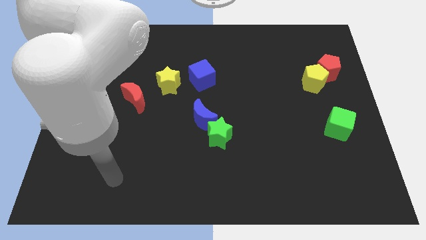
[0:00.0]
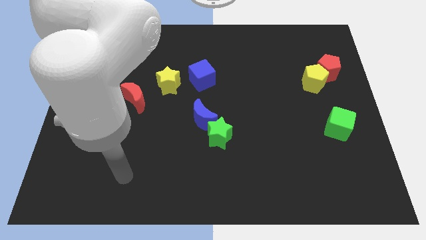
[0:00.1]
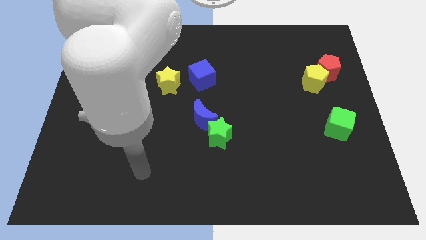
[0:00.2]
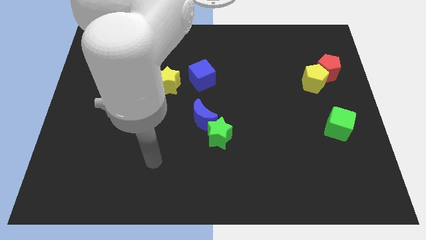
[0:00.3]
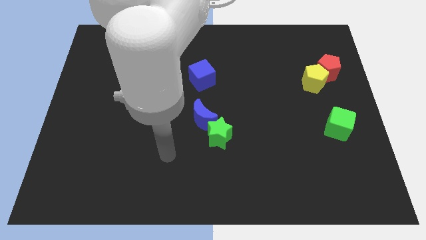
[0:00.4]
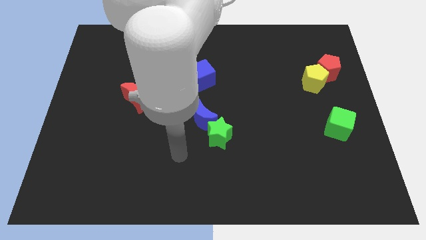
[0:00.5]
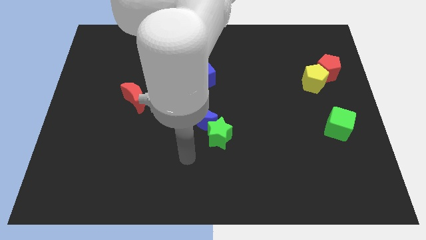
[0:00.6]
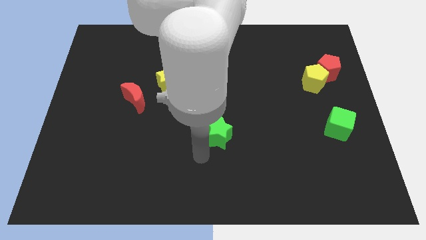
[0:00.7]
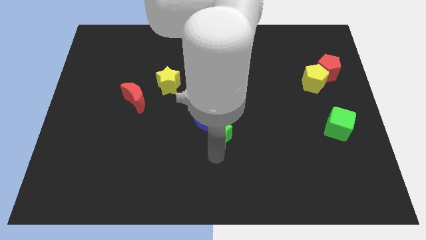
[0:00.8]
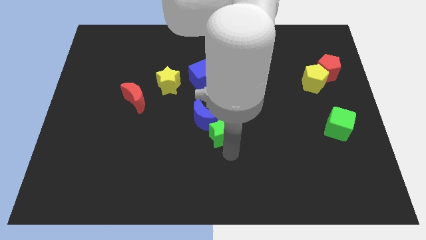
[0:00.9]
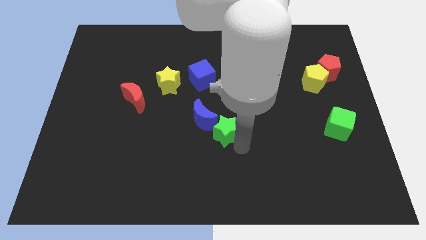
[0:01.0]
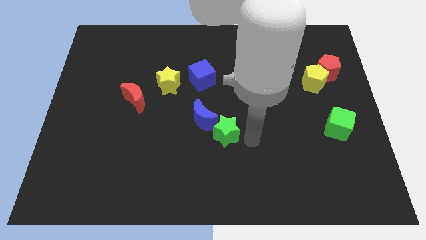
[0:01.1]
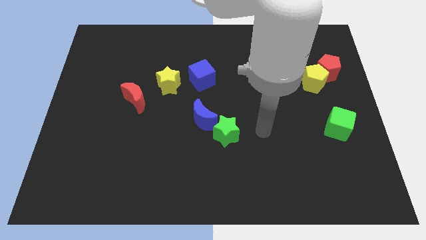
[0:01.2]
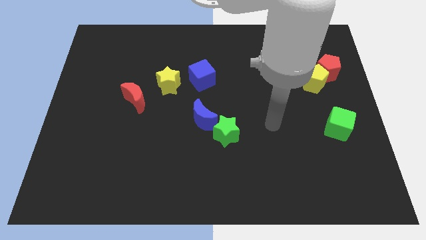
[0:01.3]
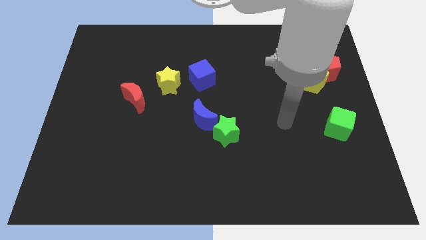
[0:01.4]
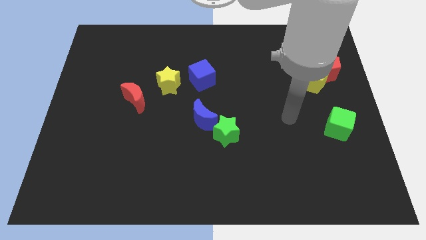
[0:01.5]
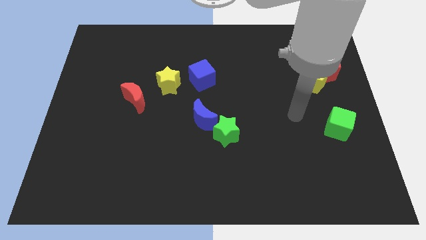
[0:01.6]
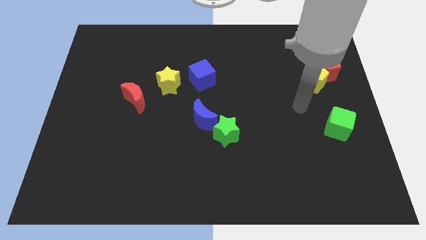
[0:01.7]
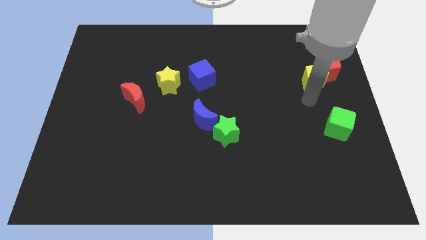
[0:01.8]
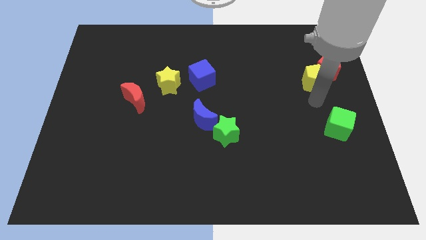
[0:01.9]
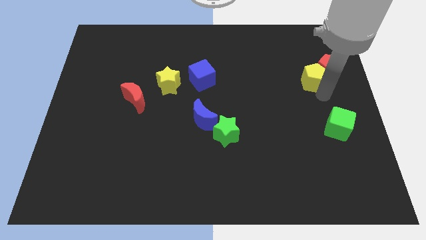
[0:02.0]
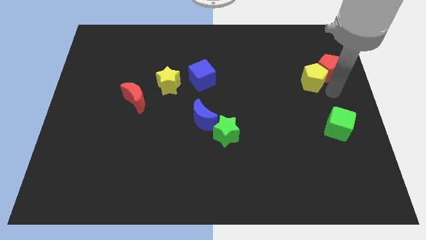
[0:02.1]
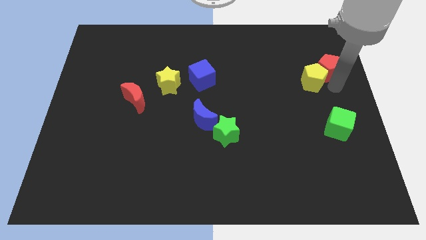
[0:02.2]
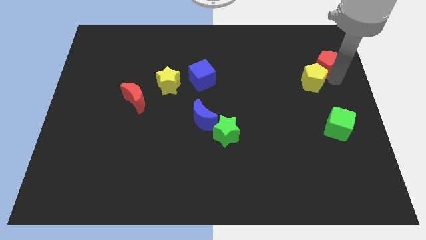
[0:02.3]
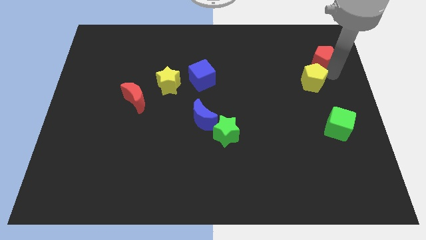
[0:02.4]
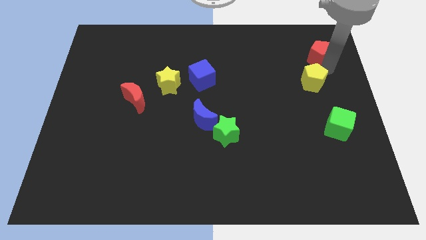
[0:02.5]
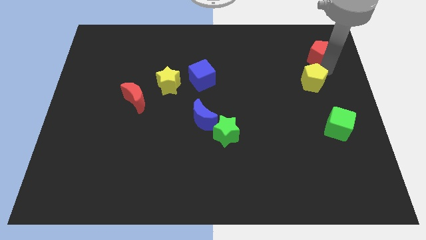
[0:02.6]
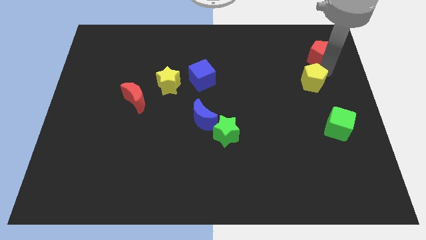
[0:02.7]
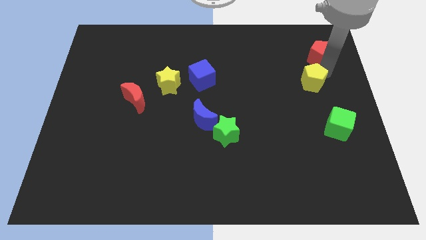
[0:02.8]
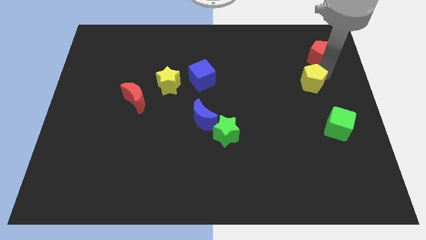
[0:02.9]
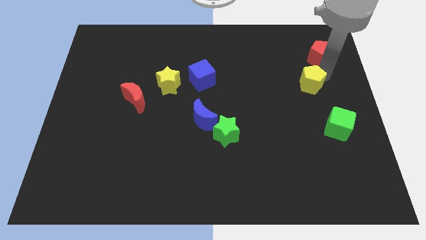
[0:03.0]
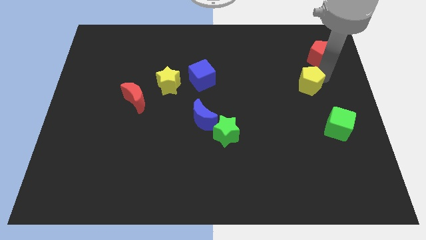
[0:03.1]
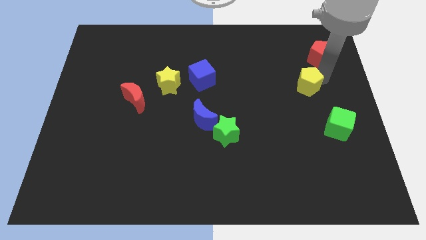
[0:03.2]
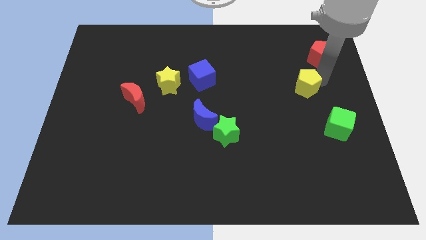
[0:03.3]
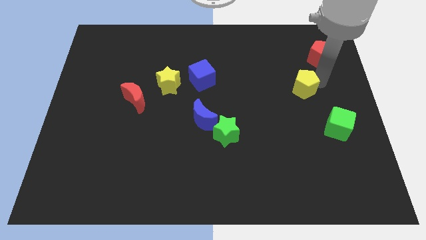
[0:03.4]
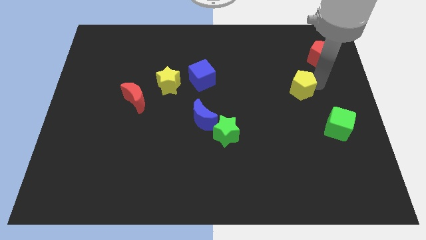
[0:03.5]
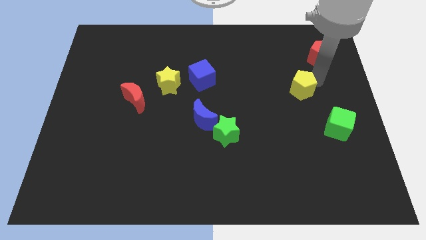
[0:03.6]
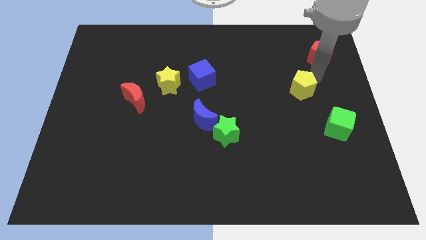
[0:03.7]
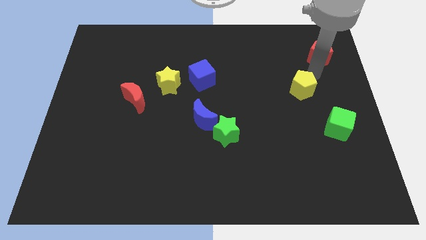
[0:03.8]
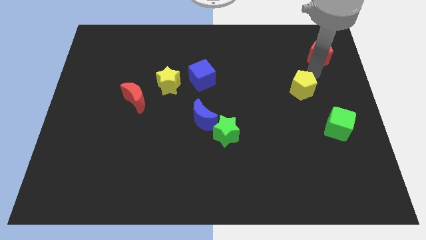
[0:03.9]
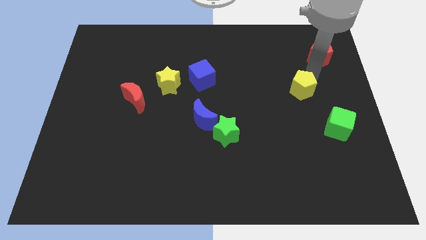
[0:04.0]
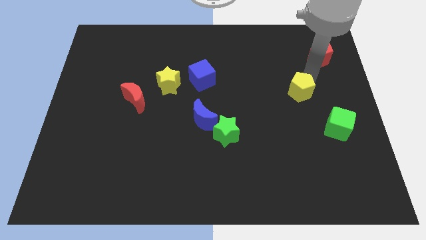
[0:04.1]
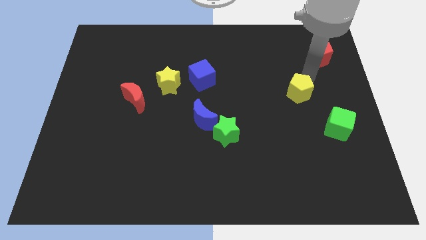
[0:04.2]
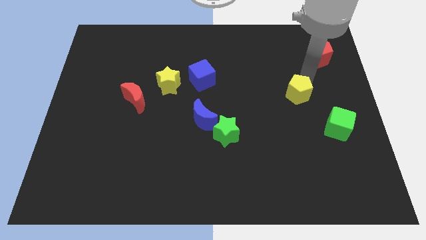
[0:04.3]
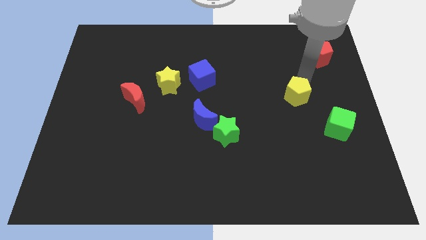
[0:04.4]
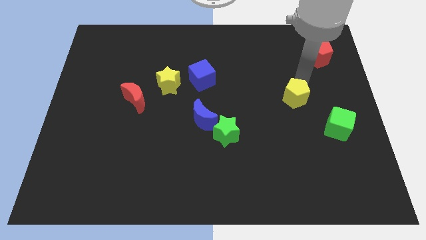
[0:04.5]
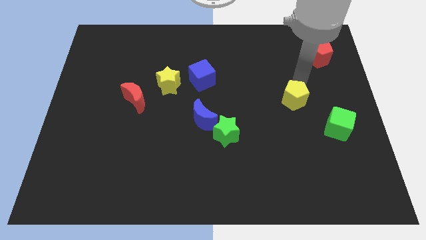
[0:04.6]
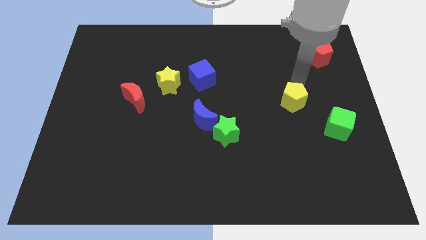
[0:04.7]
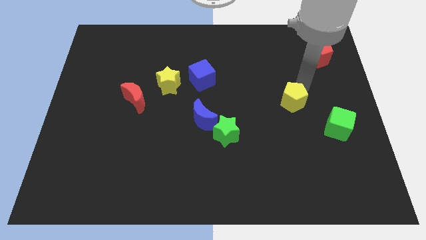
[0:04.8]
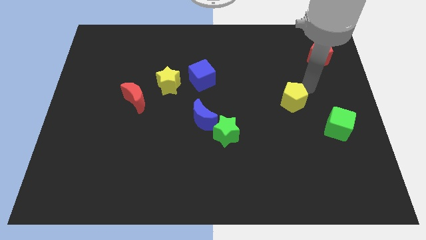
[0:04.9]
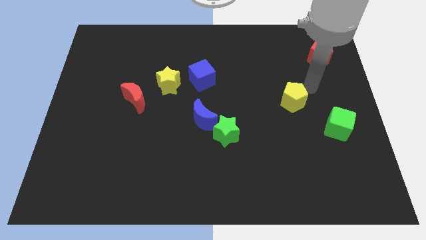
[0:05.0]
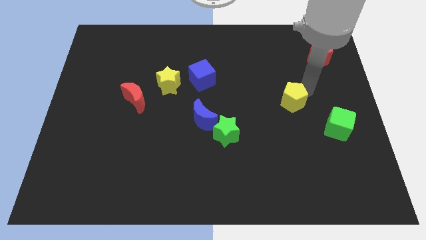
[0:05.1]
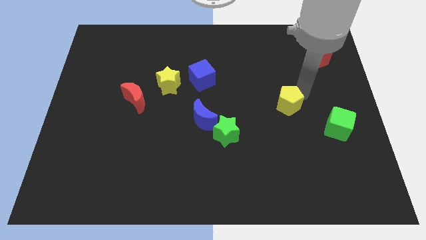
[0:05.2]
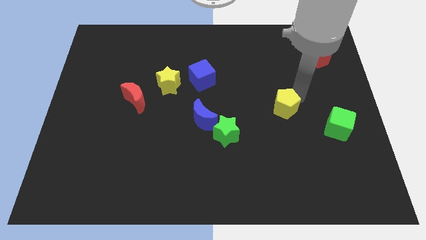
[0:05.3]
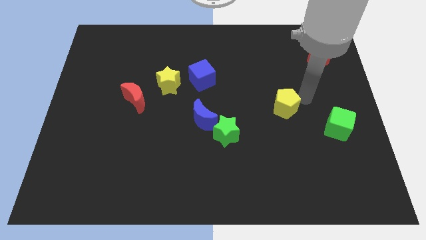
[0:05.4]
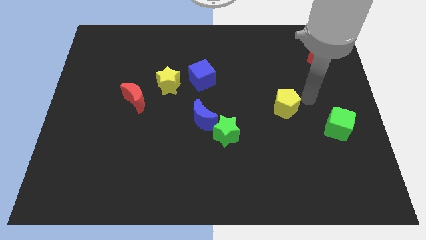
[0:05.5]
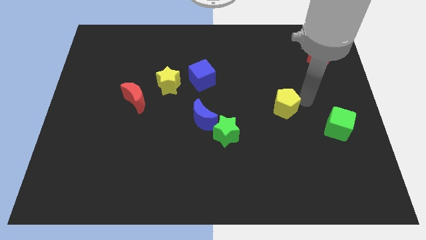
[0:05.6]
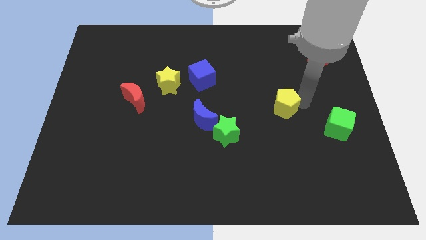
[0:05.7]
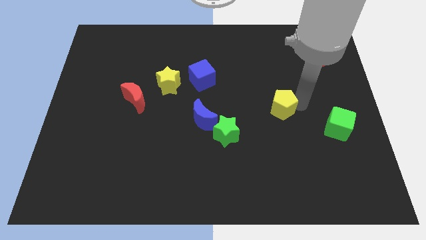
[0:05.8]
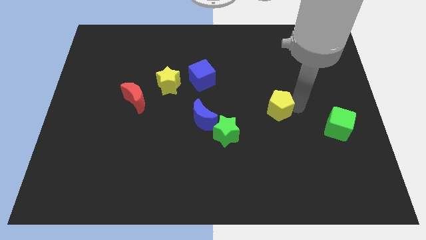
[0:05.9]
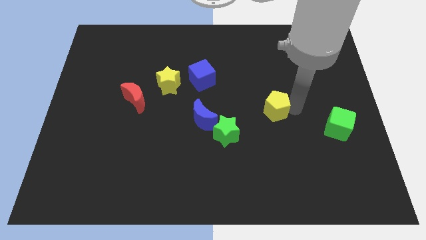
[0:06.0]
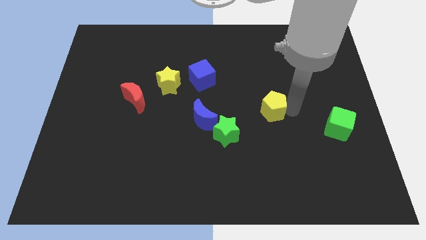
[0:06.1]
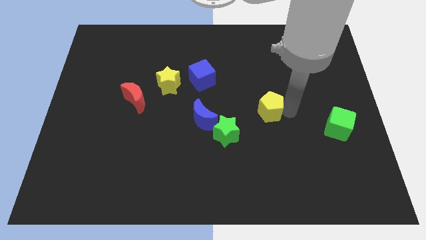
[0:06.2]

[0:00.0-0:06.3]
slide the yellow pentagon to the right side of the blue moon

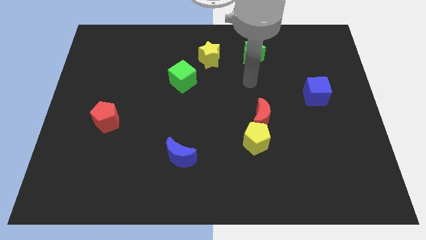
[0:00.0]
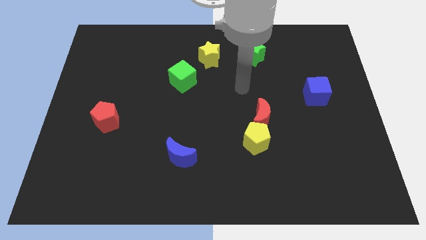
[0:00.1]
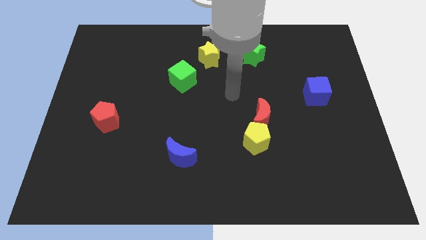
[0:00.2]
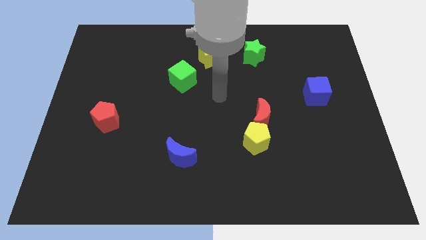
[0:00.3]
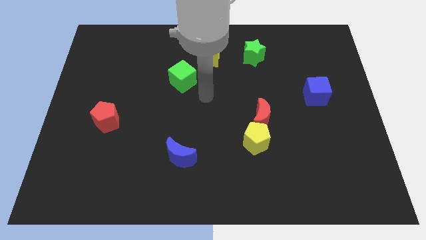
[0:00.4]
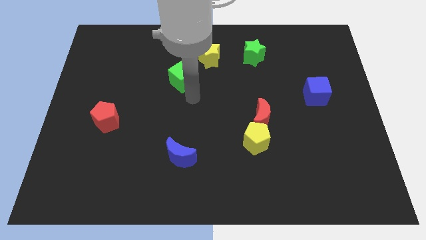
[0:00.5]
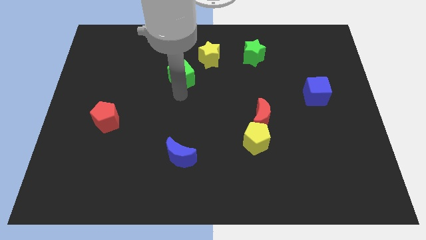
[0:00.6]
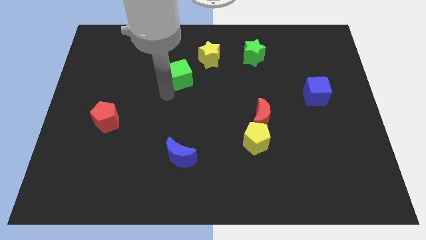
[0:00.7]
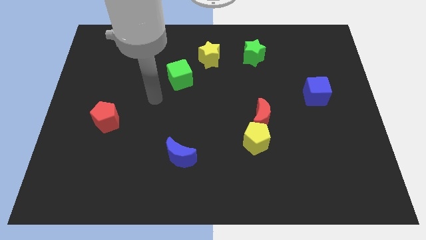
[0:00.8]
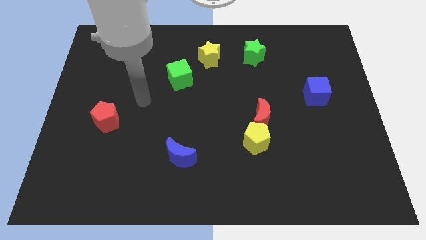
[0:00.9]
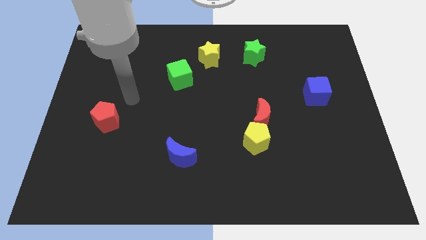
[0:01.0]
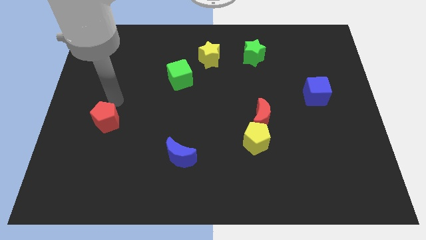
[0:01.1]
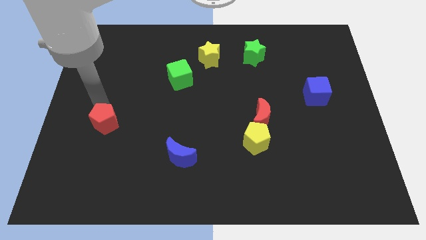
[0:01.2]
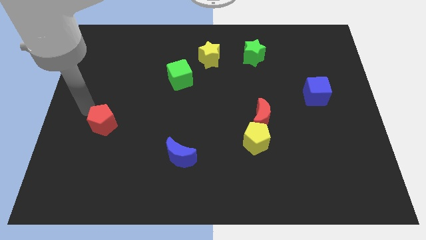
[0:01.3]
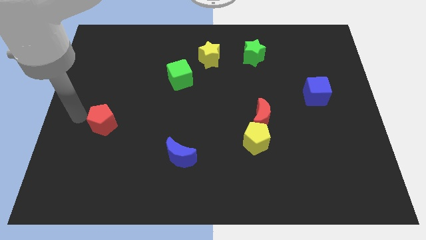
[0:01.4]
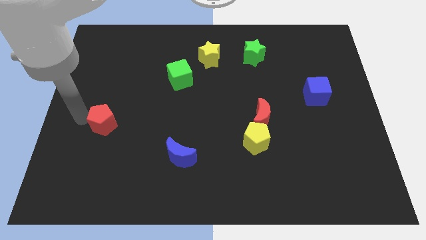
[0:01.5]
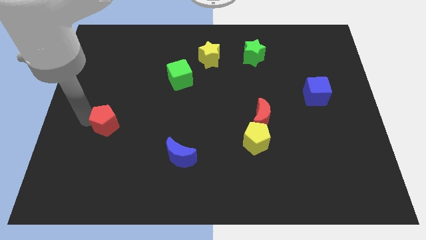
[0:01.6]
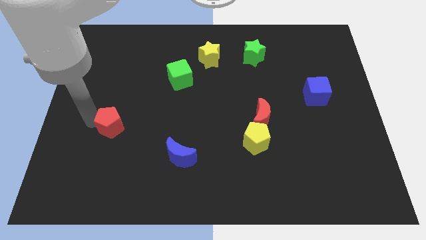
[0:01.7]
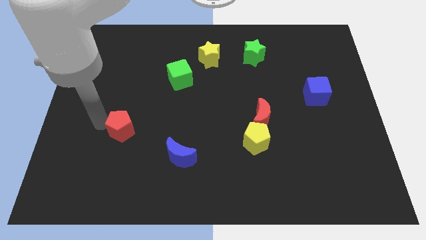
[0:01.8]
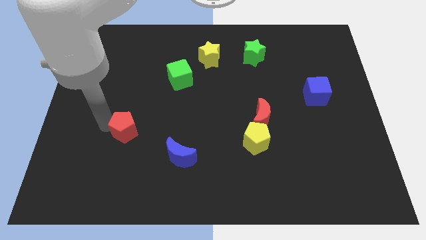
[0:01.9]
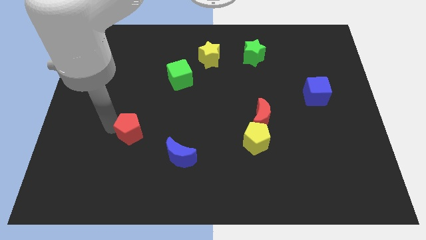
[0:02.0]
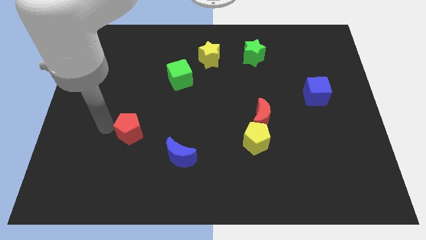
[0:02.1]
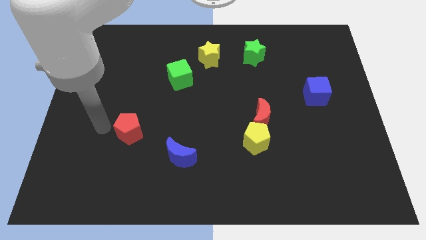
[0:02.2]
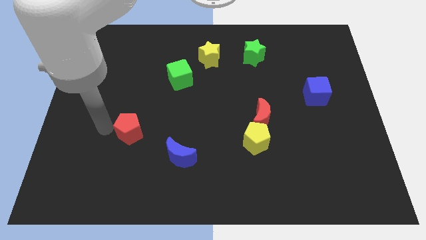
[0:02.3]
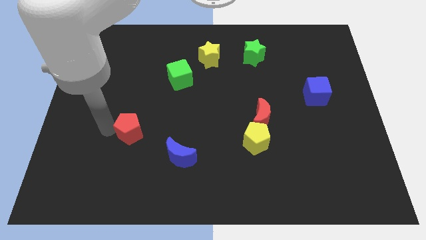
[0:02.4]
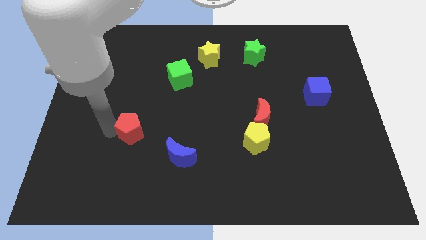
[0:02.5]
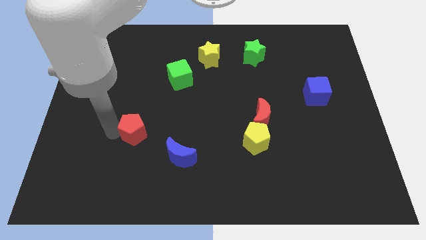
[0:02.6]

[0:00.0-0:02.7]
move the red pentagon diagonally up and to the left of the blue moon
